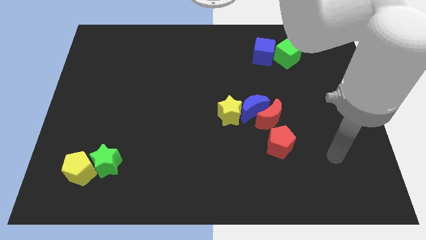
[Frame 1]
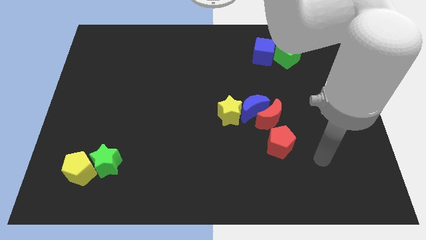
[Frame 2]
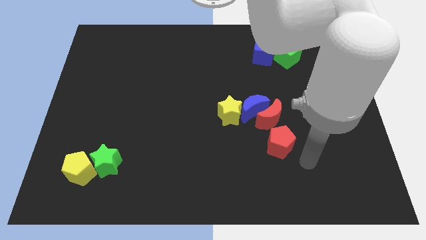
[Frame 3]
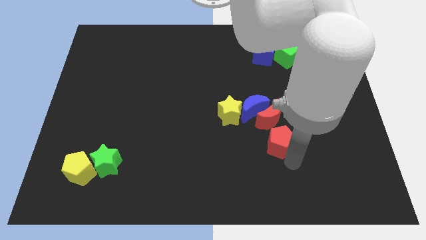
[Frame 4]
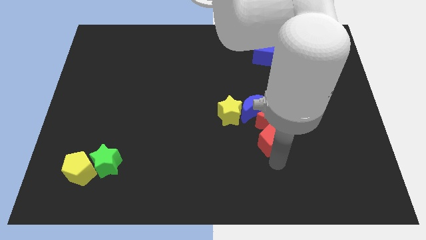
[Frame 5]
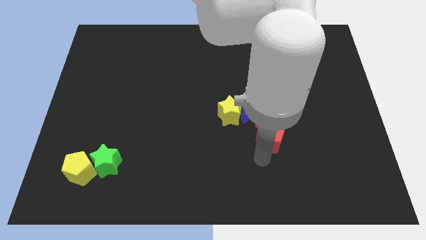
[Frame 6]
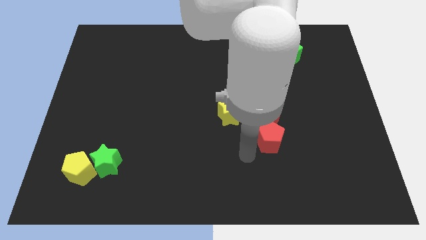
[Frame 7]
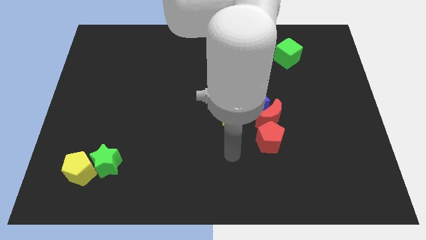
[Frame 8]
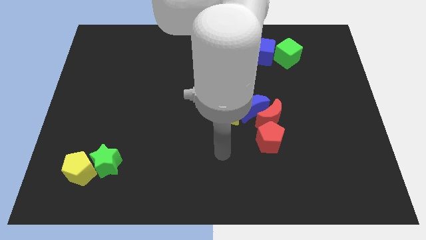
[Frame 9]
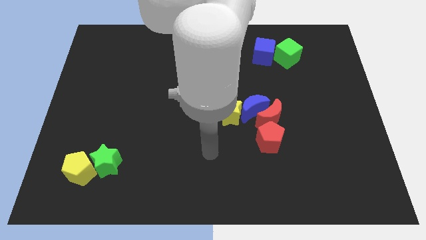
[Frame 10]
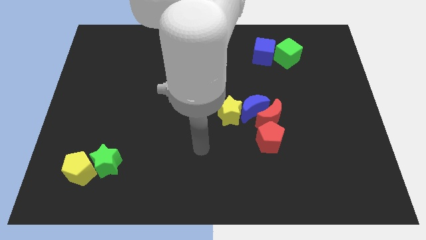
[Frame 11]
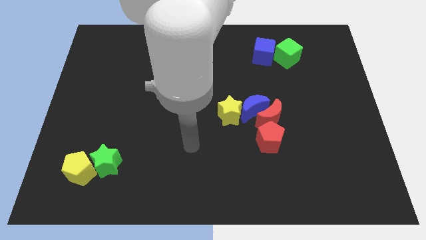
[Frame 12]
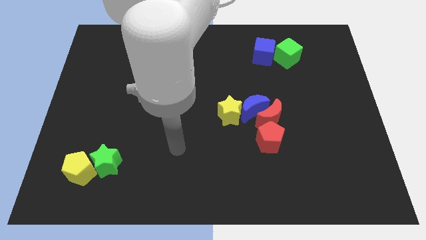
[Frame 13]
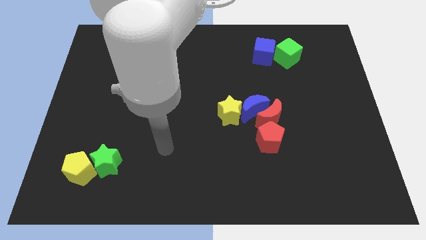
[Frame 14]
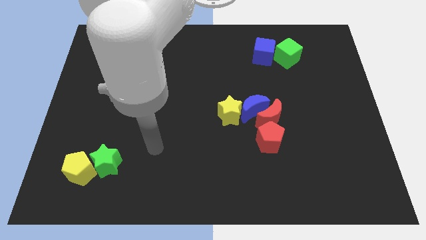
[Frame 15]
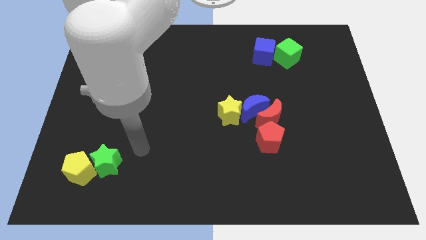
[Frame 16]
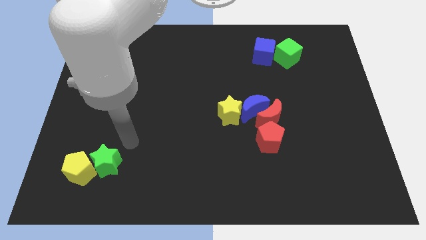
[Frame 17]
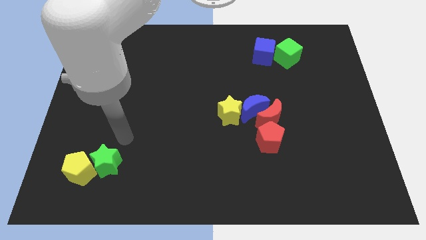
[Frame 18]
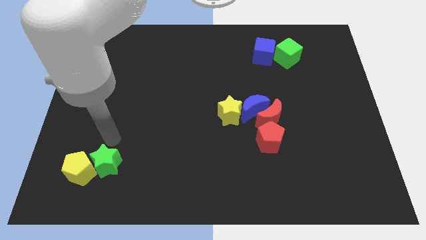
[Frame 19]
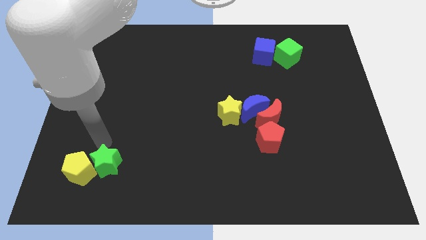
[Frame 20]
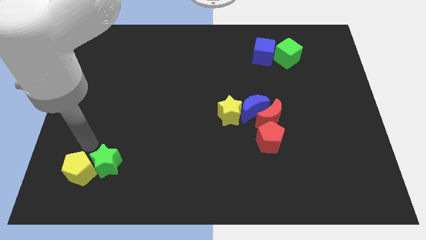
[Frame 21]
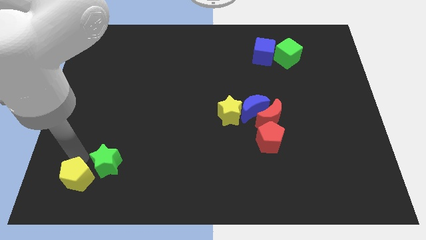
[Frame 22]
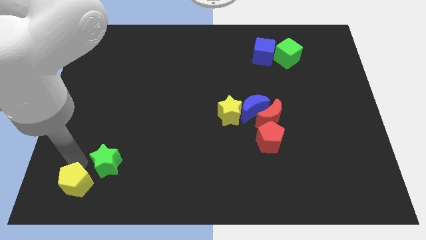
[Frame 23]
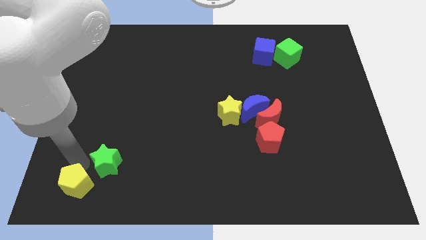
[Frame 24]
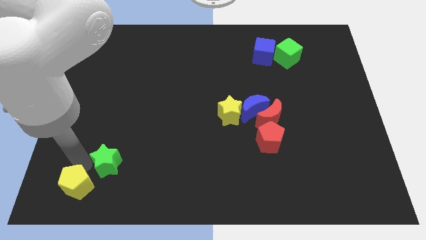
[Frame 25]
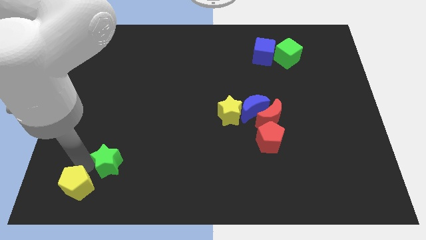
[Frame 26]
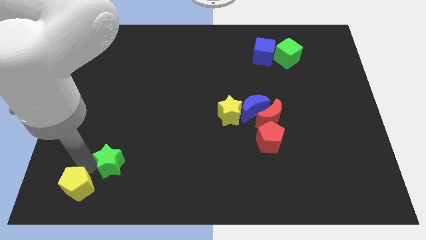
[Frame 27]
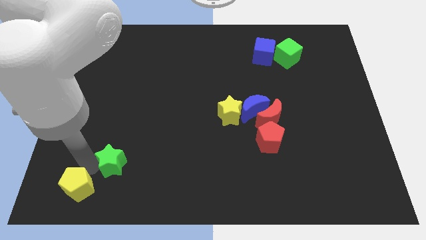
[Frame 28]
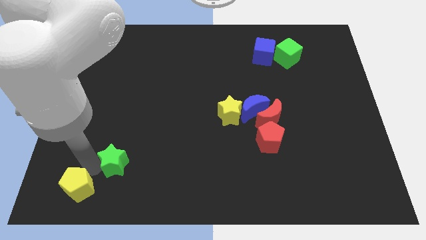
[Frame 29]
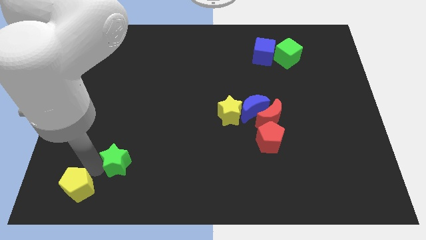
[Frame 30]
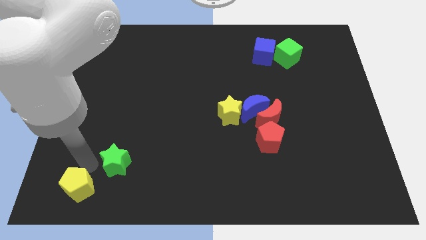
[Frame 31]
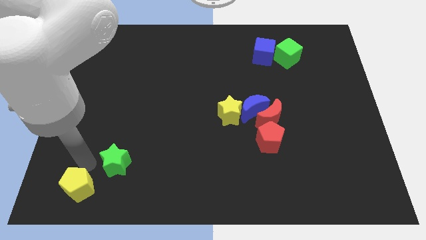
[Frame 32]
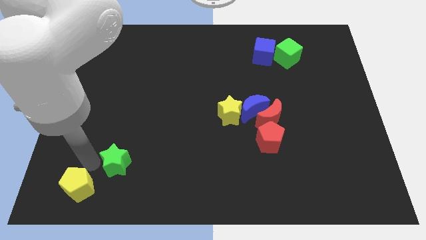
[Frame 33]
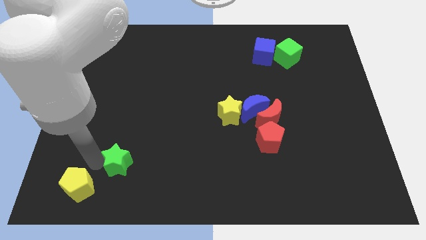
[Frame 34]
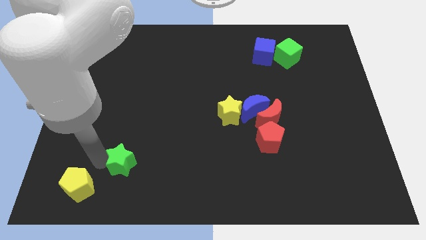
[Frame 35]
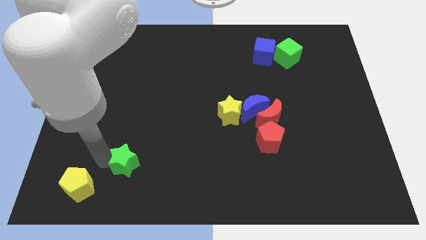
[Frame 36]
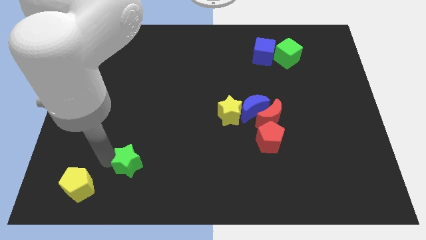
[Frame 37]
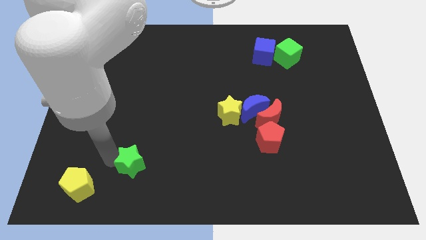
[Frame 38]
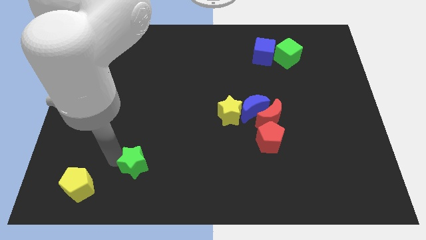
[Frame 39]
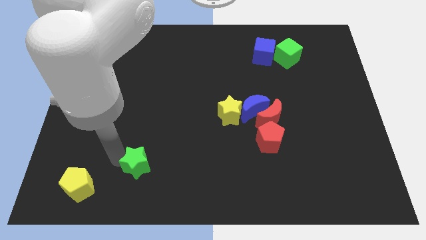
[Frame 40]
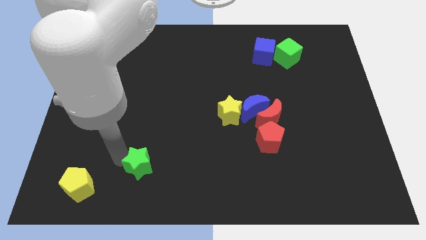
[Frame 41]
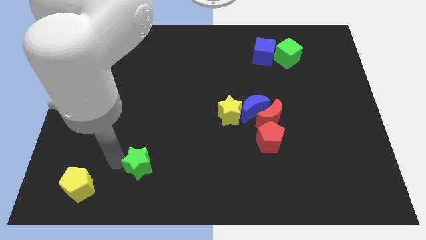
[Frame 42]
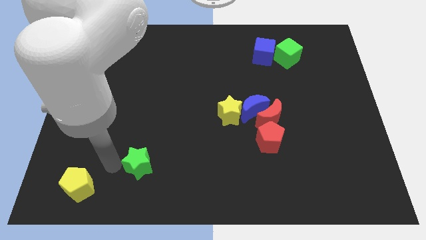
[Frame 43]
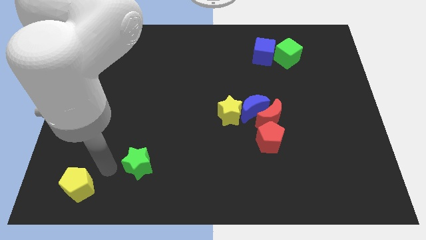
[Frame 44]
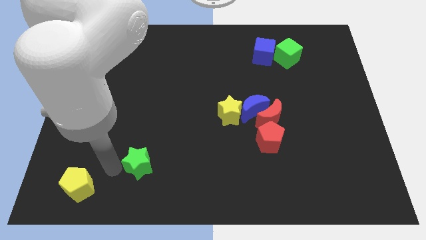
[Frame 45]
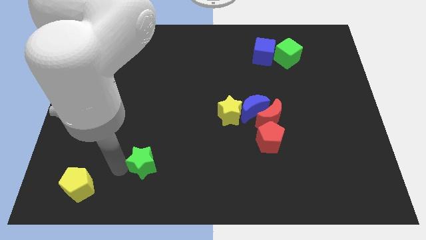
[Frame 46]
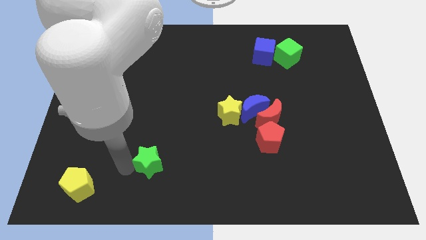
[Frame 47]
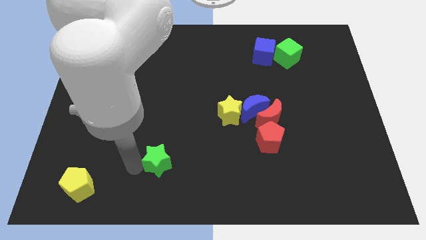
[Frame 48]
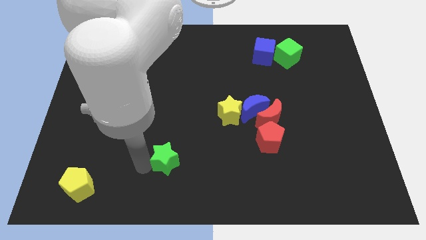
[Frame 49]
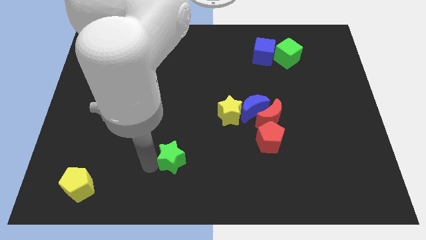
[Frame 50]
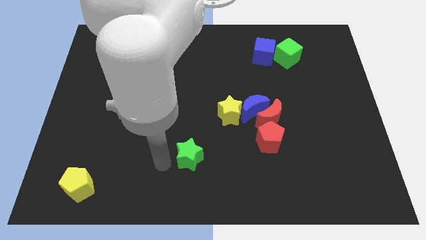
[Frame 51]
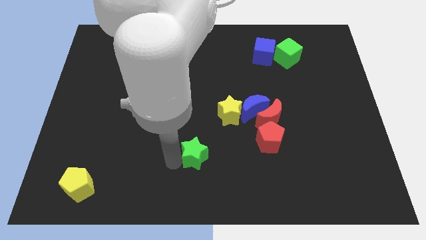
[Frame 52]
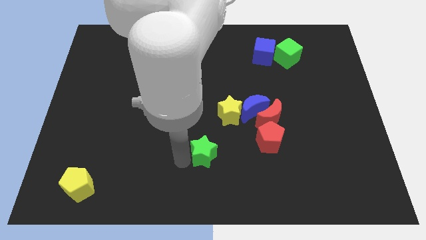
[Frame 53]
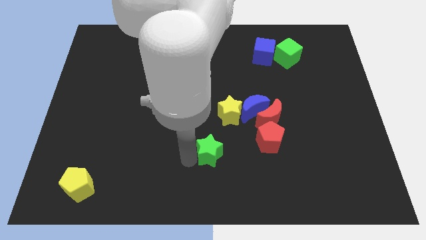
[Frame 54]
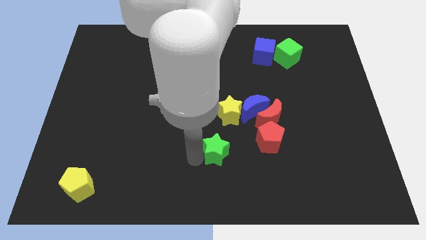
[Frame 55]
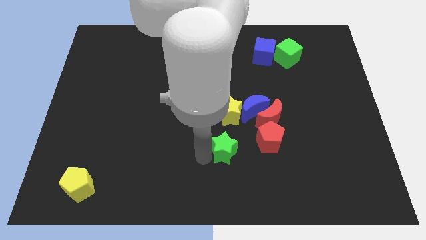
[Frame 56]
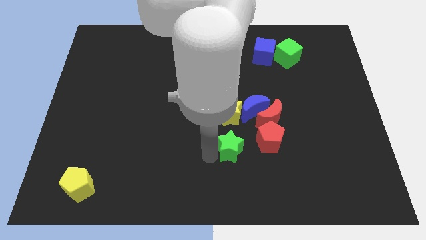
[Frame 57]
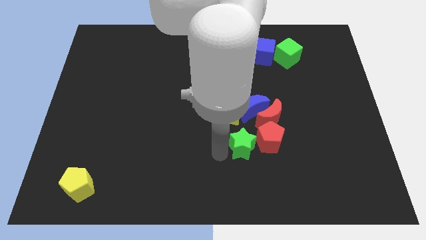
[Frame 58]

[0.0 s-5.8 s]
move the green star next to the red pentagon

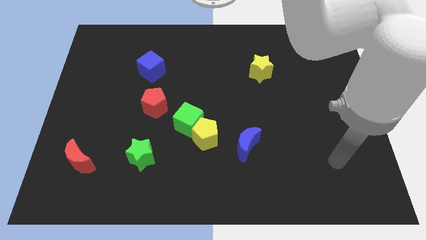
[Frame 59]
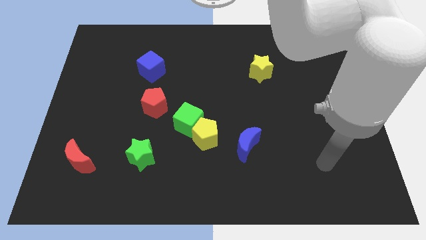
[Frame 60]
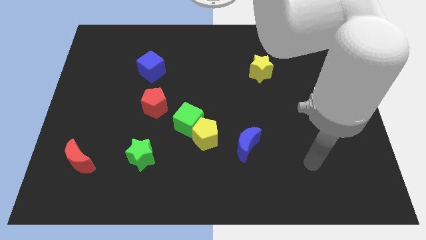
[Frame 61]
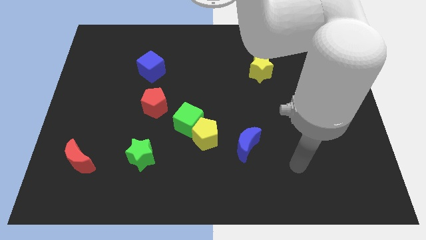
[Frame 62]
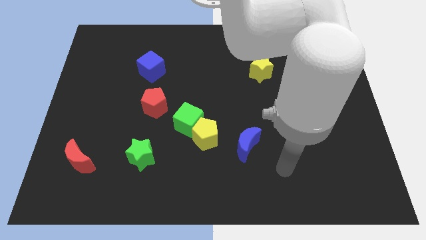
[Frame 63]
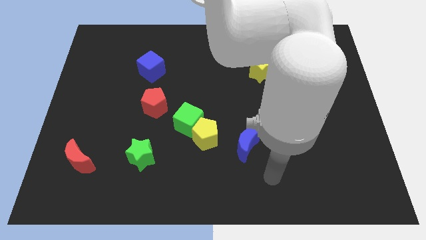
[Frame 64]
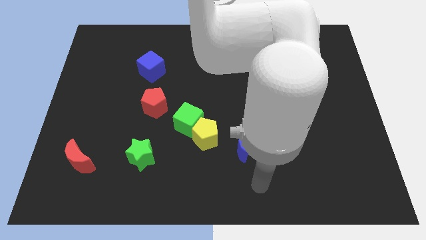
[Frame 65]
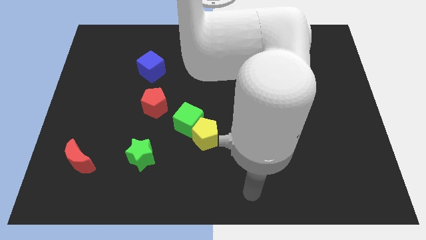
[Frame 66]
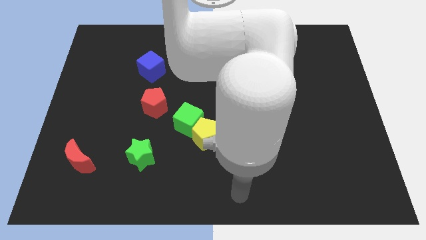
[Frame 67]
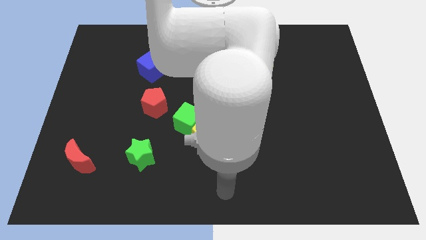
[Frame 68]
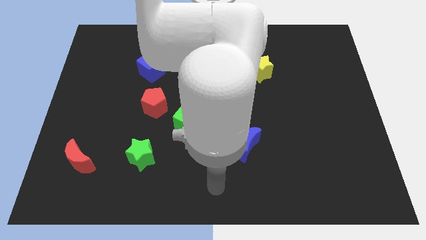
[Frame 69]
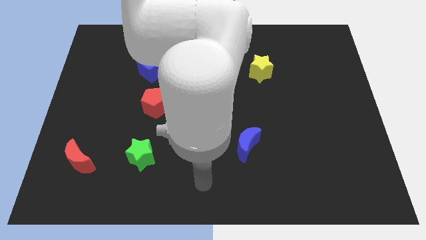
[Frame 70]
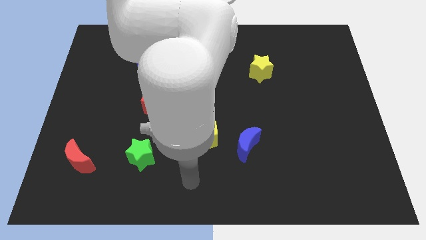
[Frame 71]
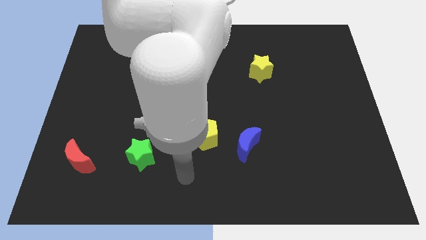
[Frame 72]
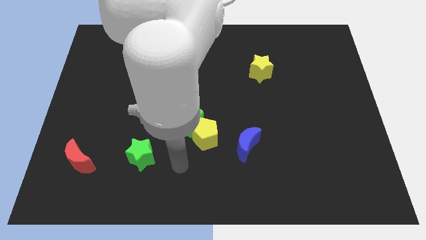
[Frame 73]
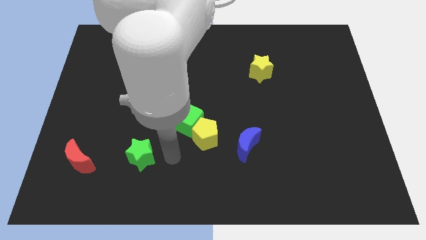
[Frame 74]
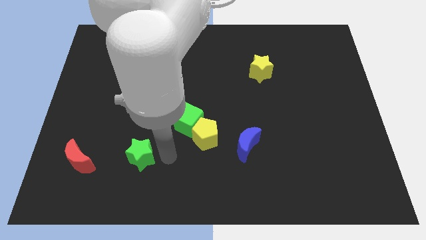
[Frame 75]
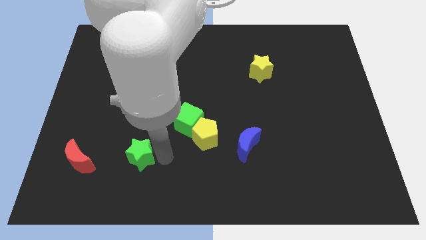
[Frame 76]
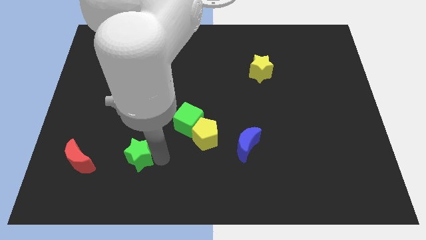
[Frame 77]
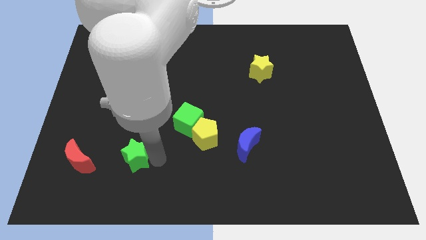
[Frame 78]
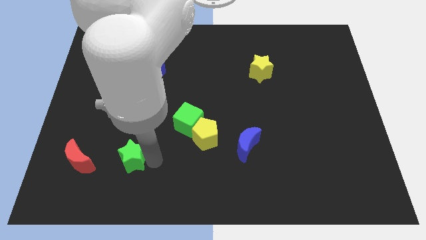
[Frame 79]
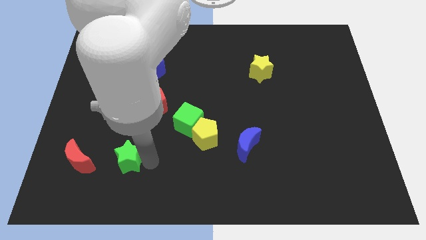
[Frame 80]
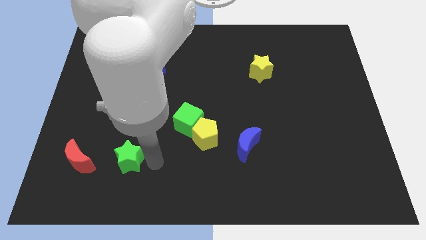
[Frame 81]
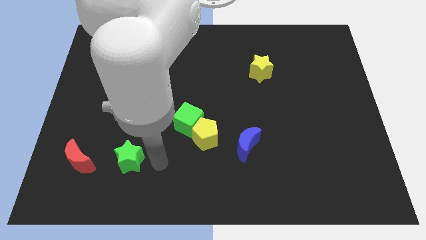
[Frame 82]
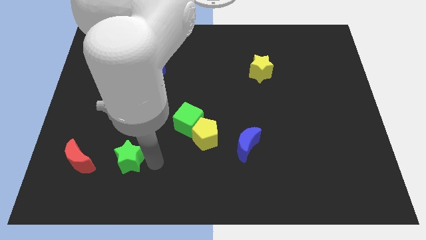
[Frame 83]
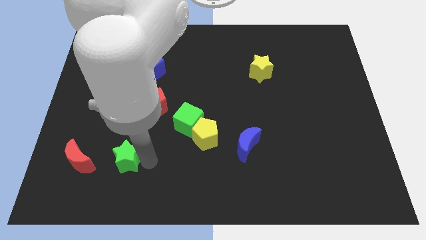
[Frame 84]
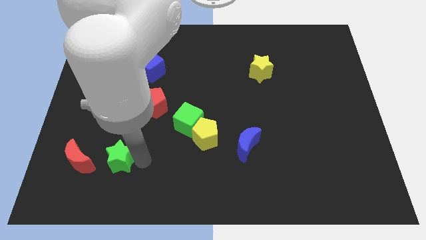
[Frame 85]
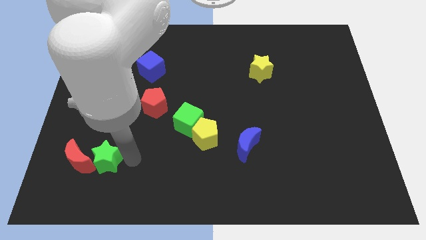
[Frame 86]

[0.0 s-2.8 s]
move the green star to the red moon
